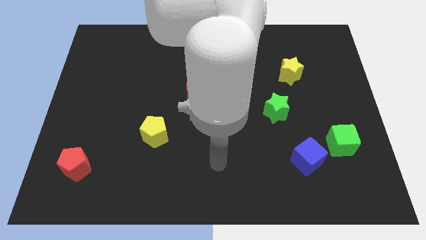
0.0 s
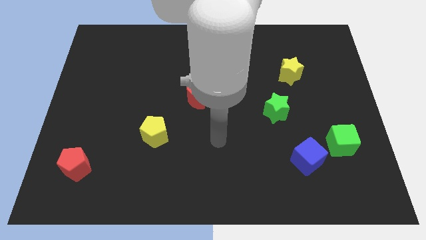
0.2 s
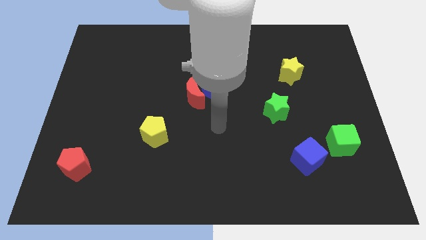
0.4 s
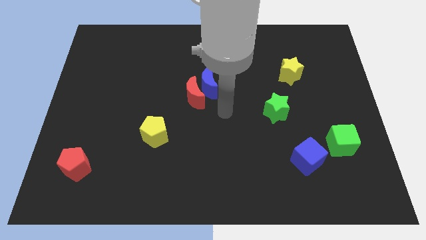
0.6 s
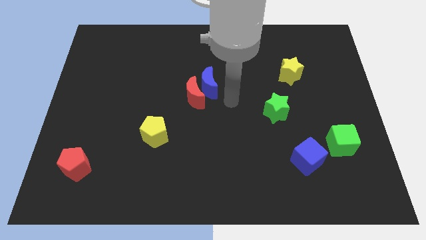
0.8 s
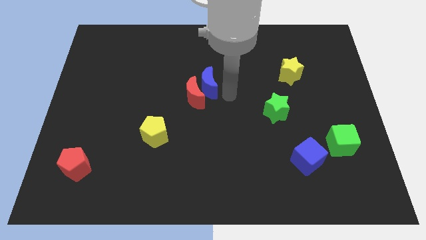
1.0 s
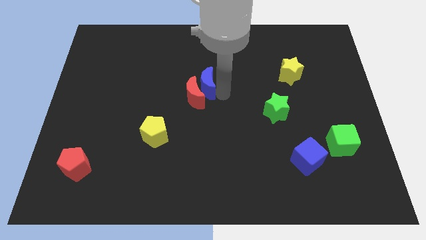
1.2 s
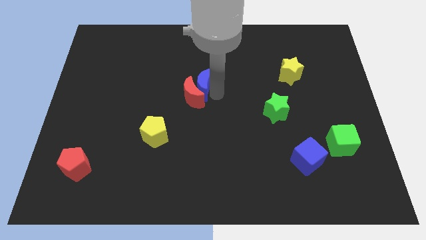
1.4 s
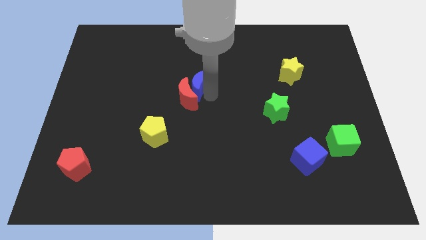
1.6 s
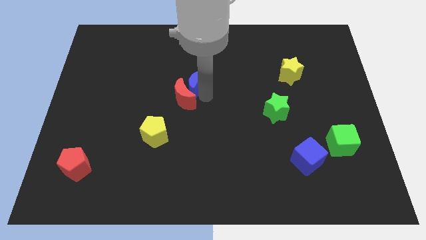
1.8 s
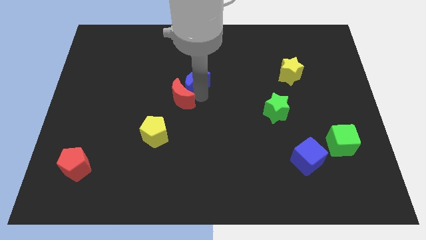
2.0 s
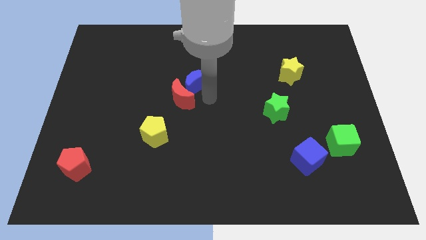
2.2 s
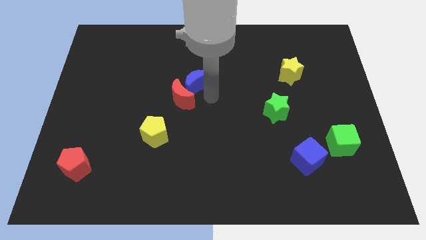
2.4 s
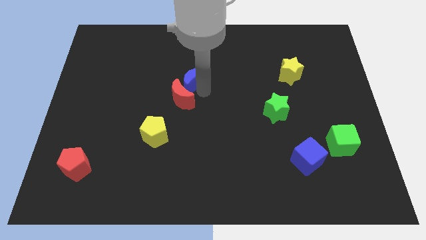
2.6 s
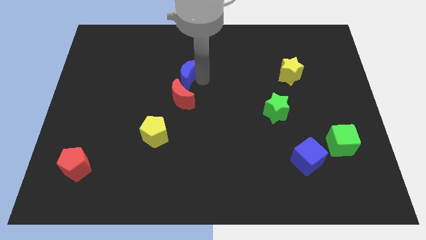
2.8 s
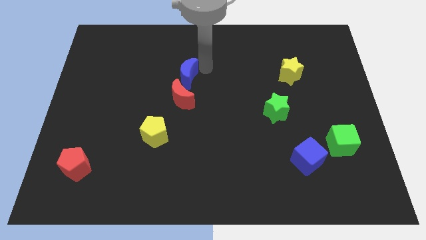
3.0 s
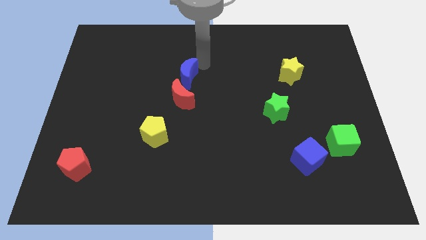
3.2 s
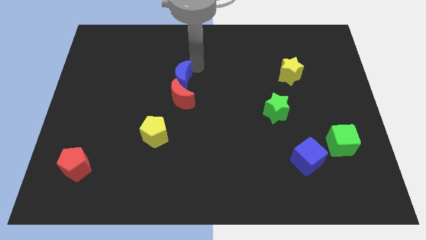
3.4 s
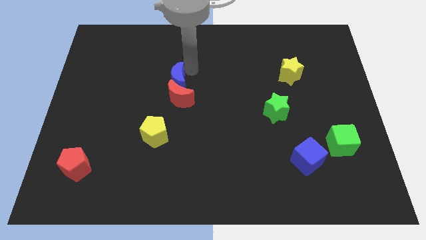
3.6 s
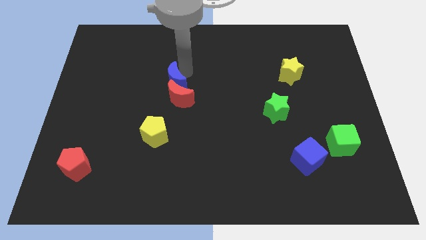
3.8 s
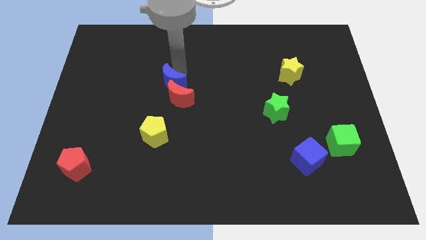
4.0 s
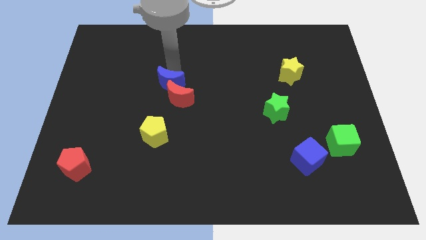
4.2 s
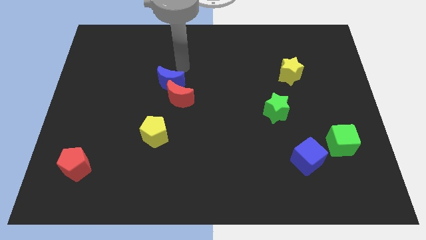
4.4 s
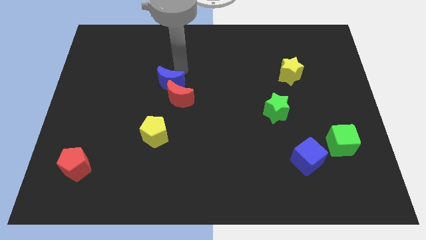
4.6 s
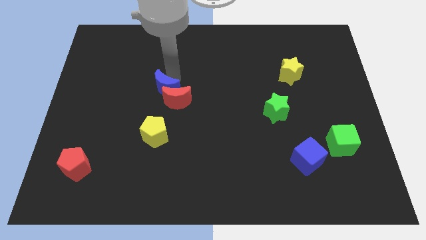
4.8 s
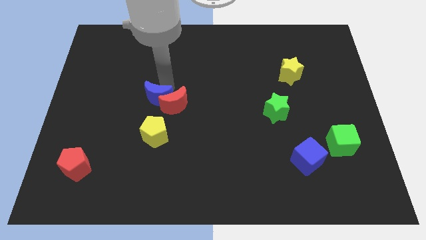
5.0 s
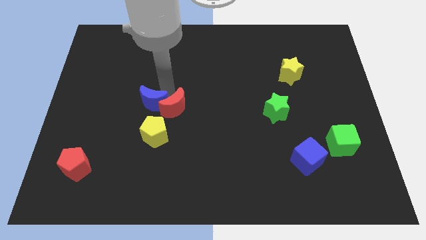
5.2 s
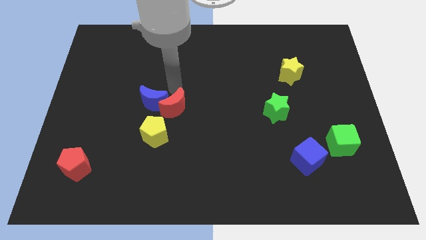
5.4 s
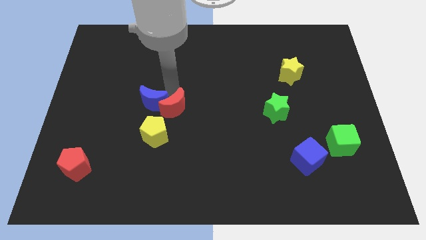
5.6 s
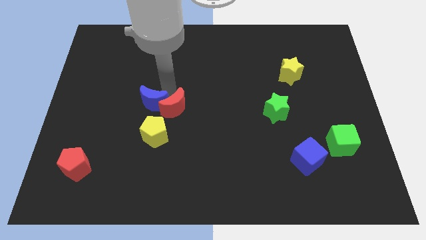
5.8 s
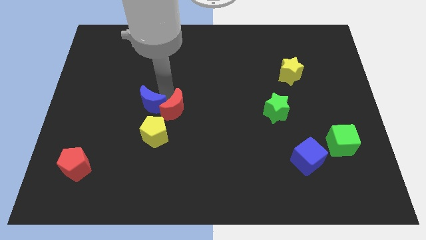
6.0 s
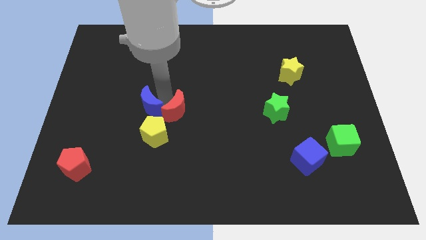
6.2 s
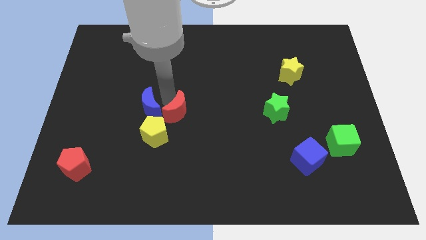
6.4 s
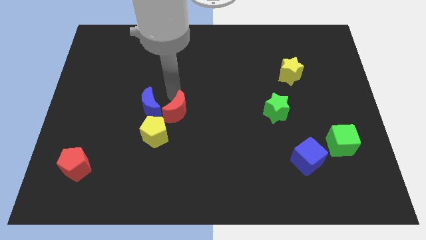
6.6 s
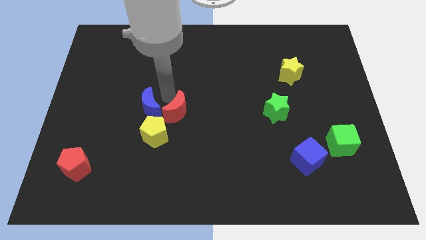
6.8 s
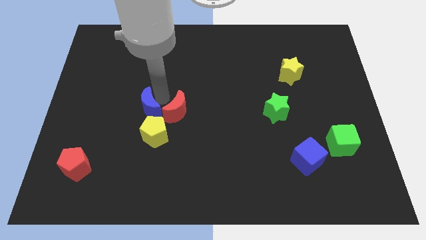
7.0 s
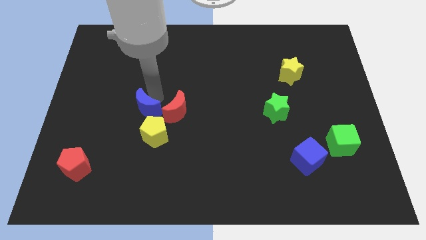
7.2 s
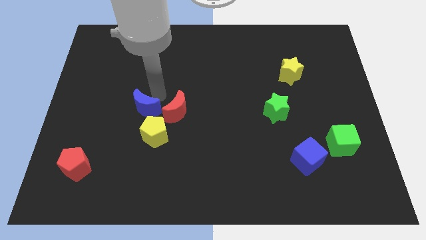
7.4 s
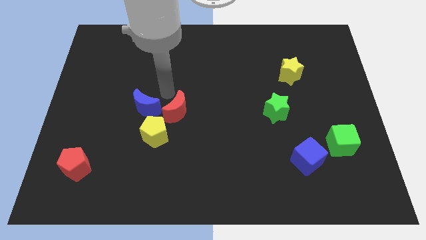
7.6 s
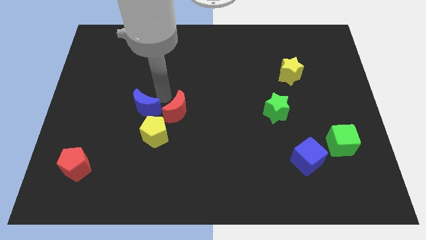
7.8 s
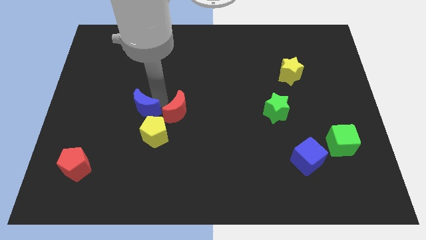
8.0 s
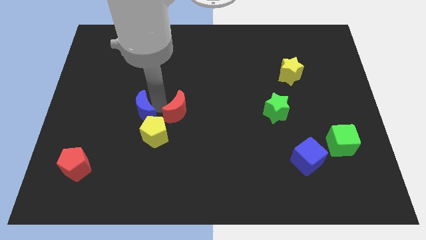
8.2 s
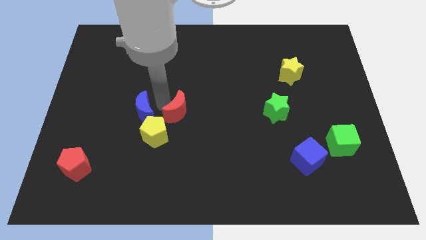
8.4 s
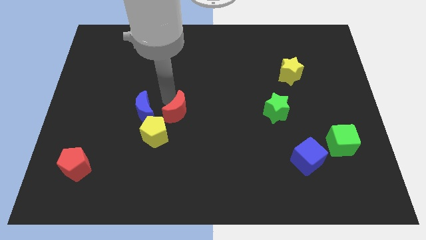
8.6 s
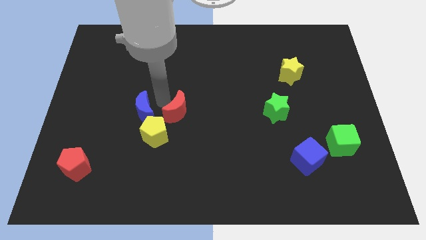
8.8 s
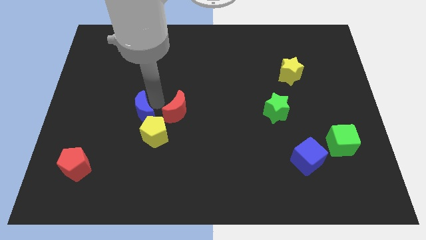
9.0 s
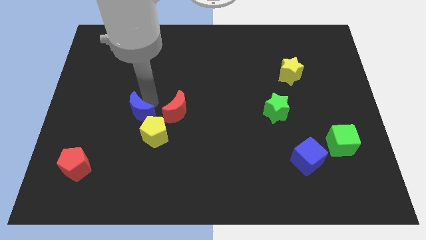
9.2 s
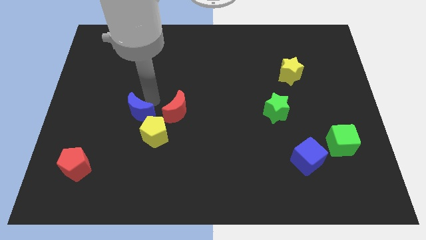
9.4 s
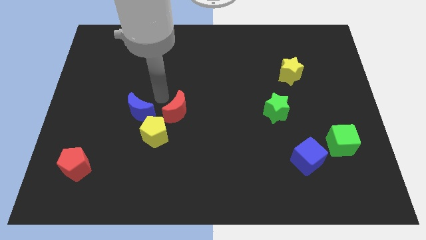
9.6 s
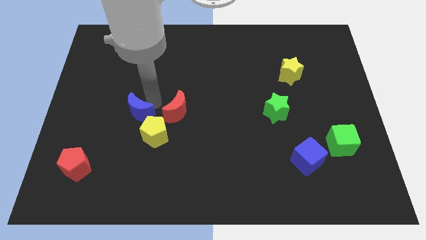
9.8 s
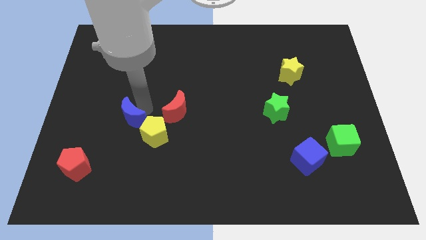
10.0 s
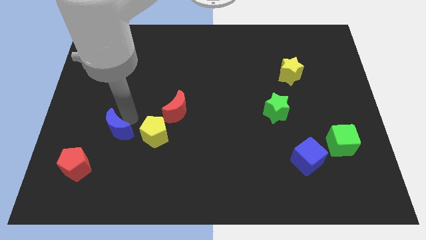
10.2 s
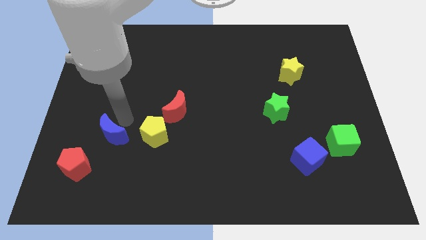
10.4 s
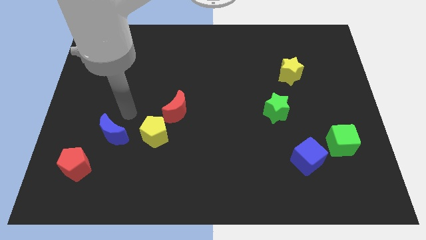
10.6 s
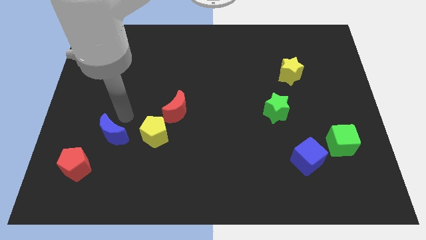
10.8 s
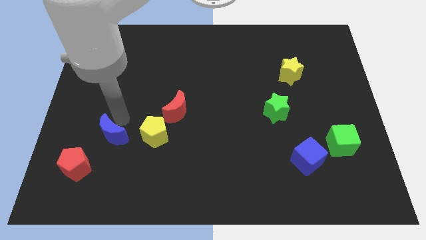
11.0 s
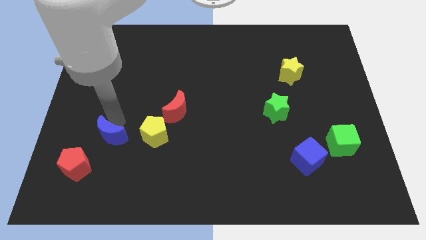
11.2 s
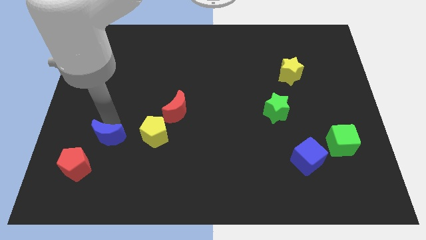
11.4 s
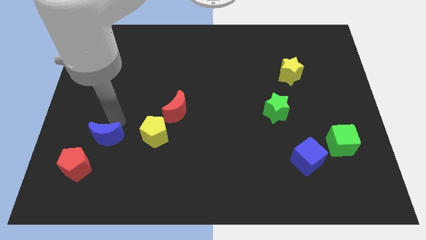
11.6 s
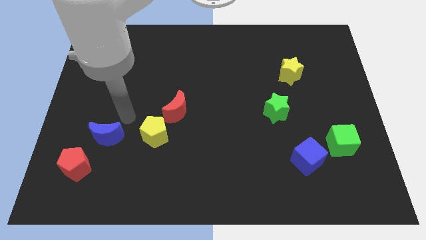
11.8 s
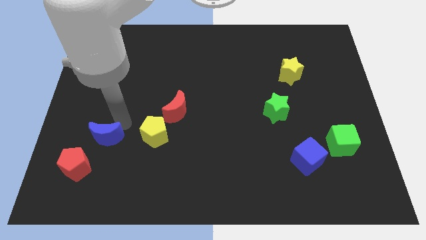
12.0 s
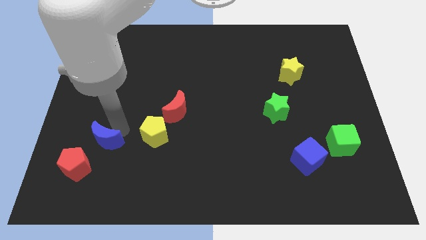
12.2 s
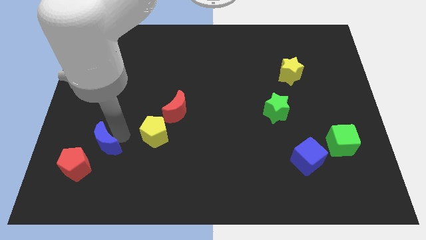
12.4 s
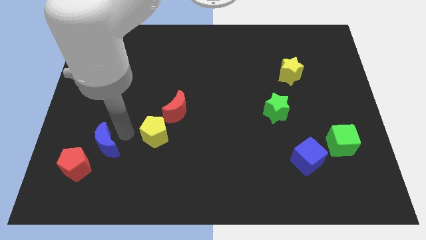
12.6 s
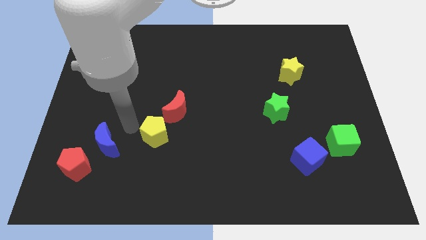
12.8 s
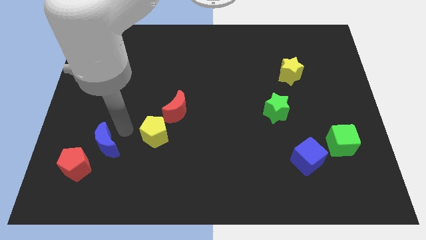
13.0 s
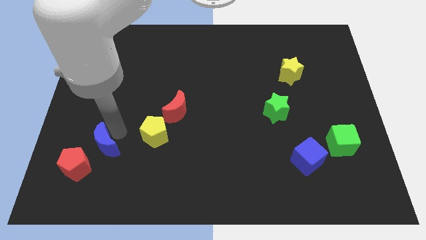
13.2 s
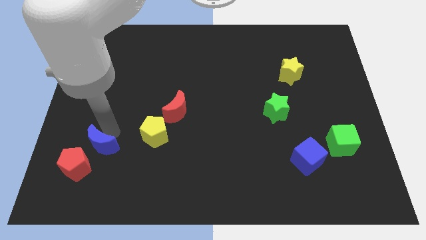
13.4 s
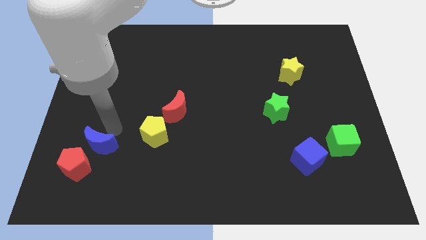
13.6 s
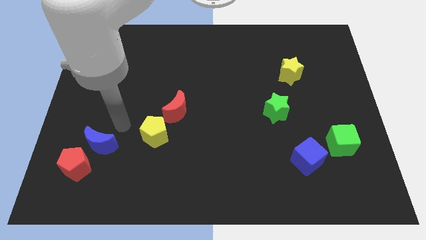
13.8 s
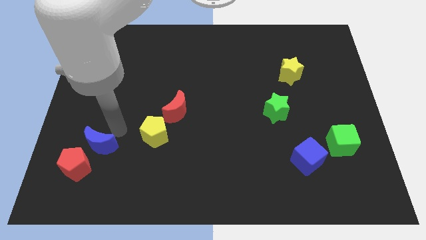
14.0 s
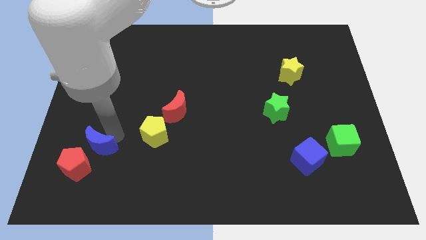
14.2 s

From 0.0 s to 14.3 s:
move the blue moon to the red pentagon

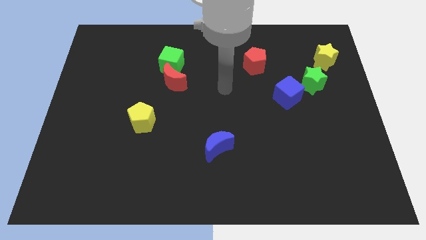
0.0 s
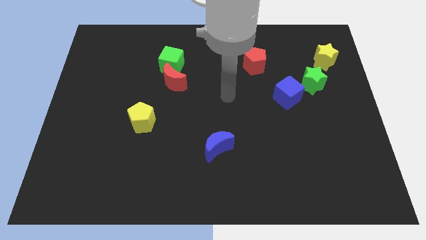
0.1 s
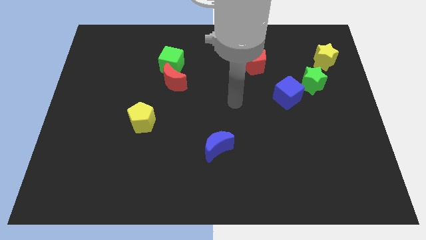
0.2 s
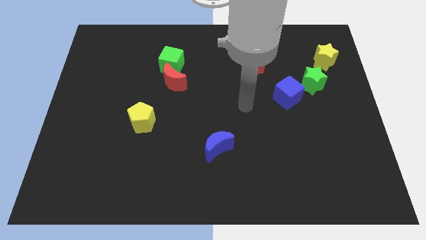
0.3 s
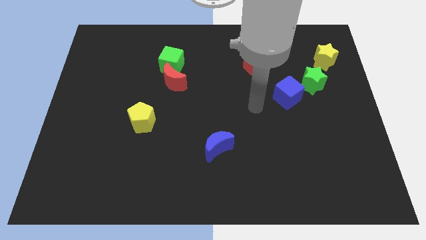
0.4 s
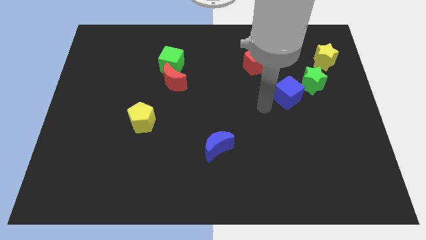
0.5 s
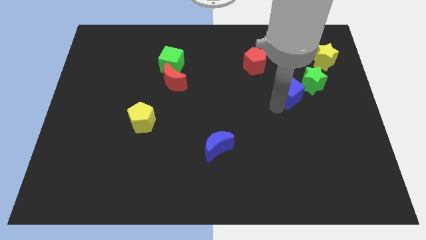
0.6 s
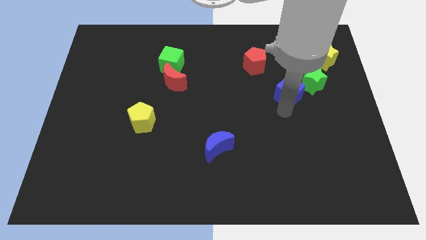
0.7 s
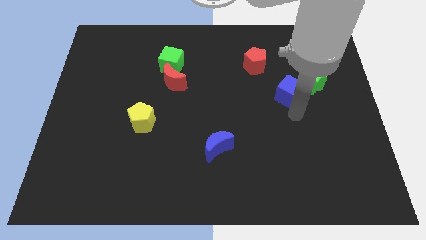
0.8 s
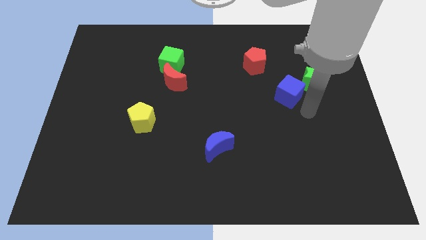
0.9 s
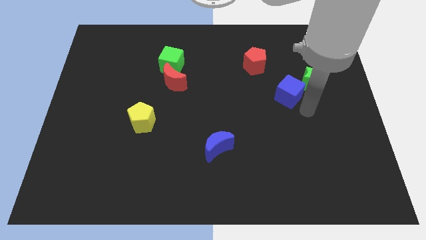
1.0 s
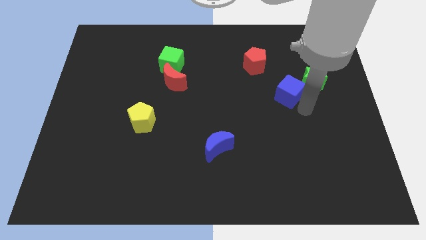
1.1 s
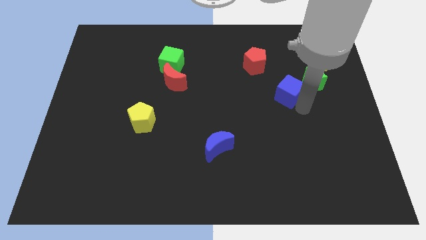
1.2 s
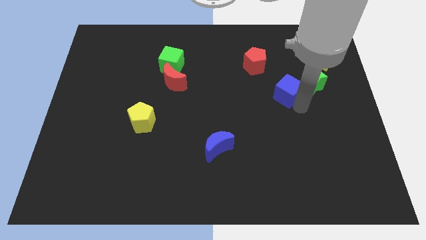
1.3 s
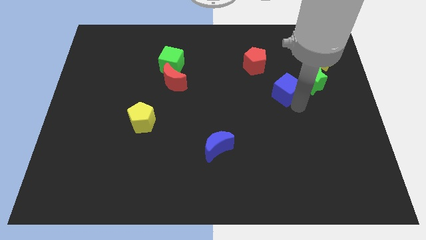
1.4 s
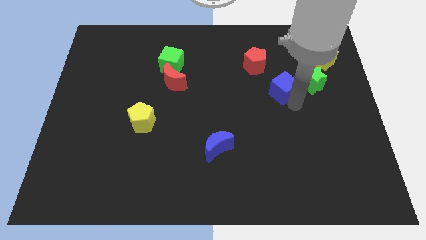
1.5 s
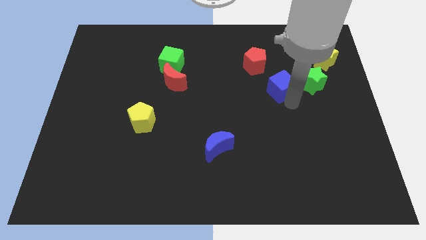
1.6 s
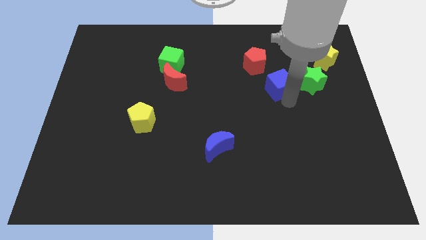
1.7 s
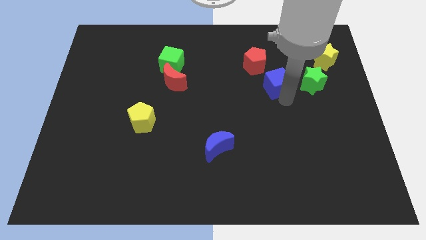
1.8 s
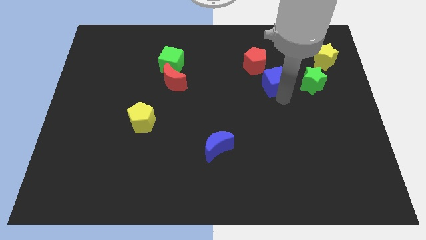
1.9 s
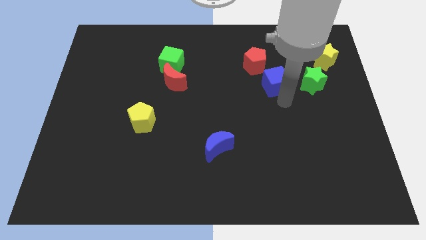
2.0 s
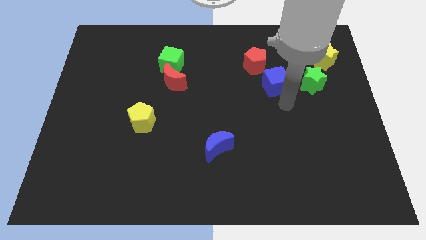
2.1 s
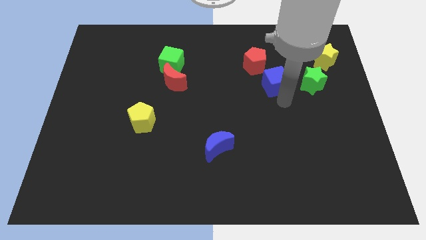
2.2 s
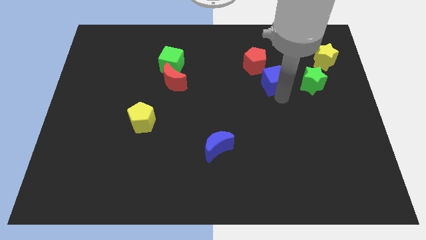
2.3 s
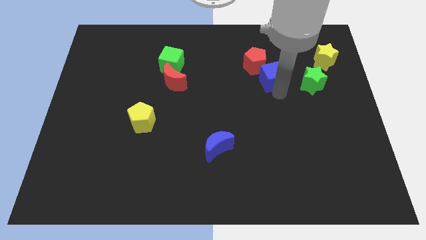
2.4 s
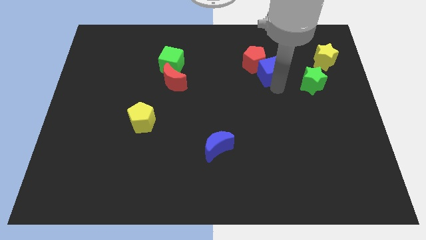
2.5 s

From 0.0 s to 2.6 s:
move the blue cube close to the red pentagon
